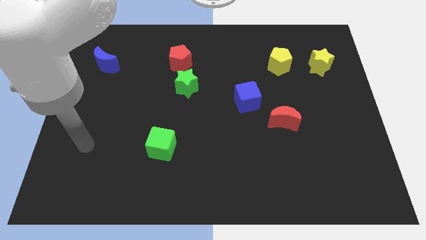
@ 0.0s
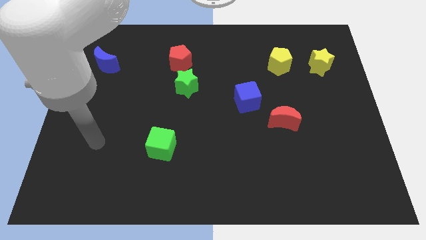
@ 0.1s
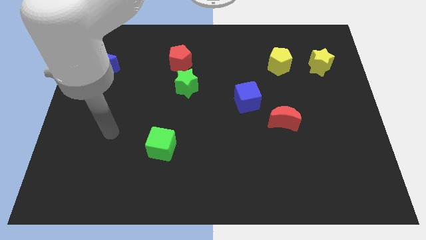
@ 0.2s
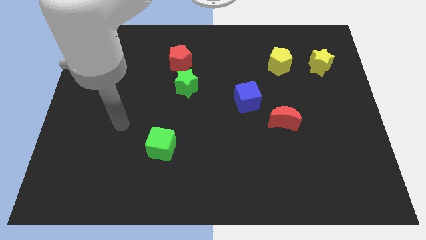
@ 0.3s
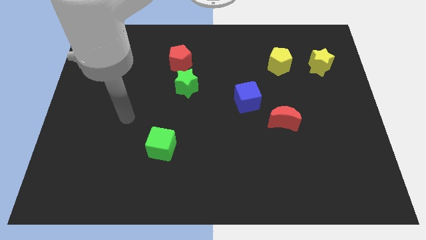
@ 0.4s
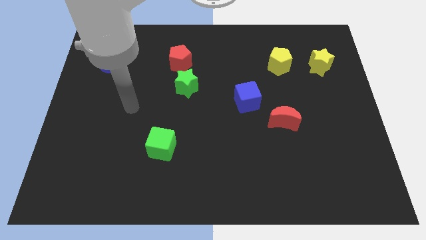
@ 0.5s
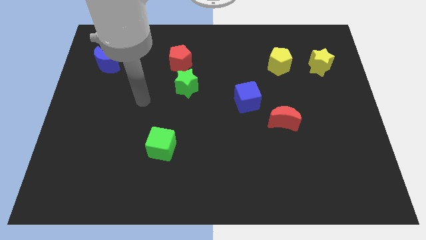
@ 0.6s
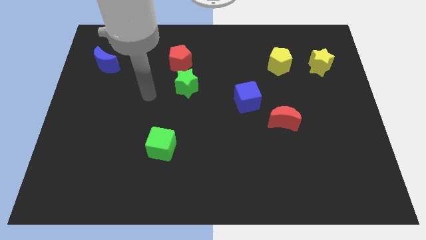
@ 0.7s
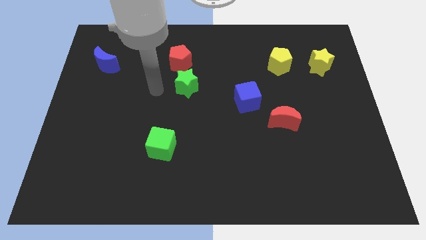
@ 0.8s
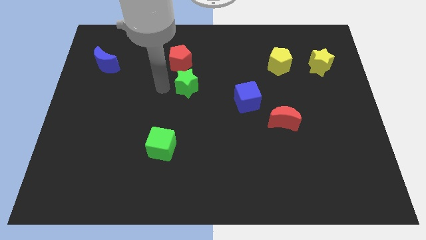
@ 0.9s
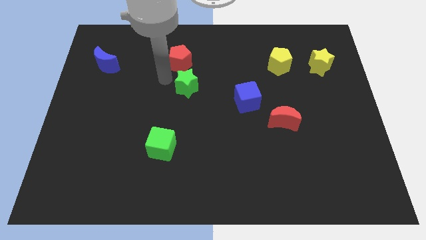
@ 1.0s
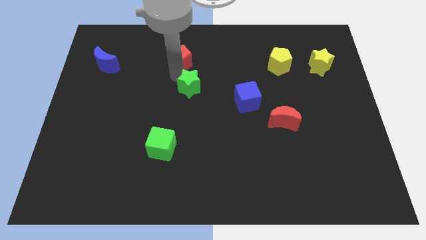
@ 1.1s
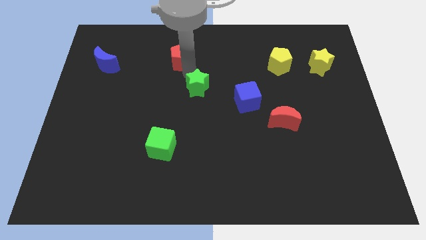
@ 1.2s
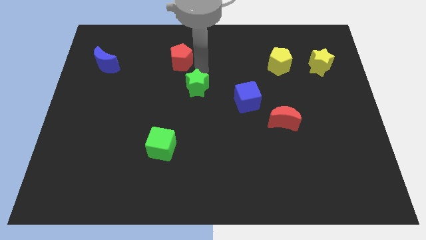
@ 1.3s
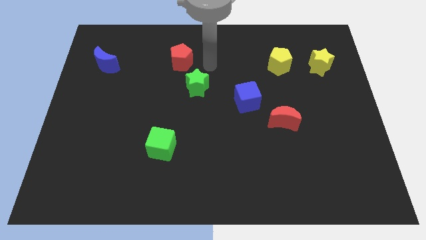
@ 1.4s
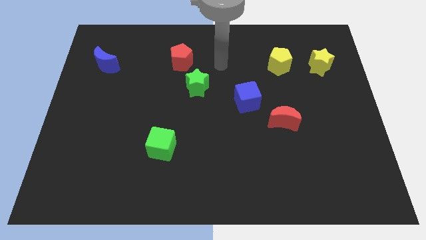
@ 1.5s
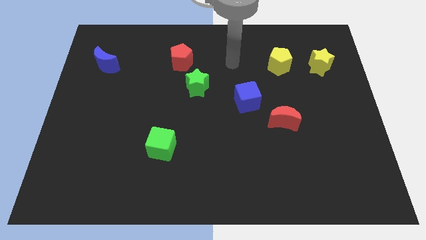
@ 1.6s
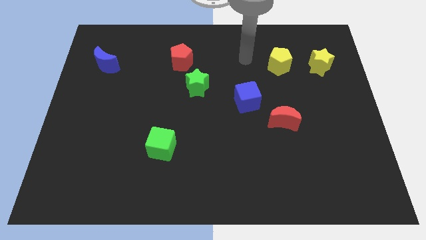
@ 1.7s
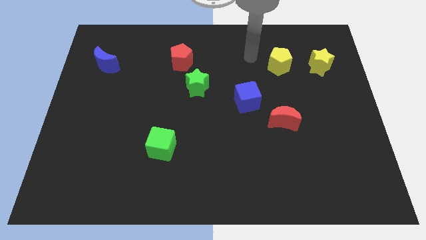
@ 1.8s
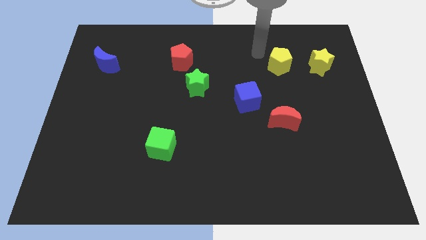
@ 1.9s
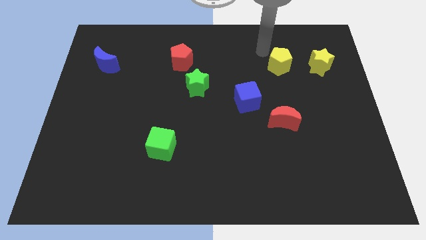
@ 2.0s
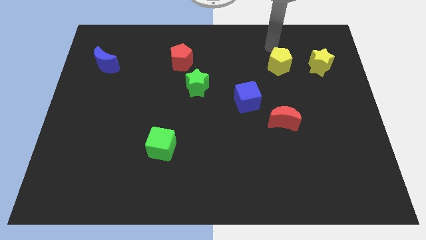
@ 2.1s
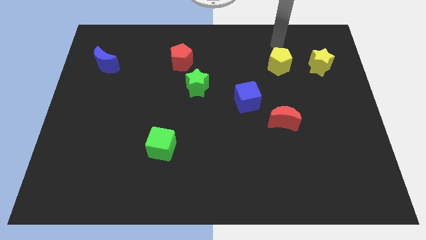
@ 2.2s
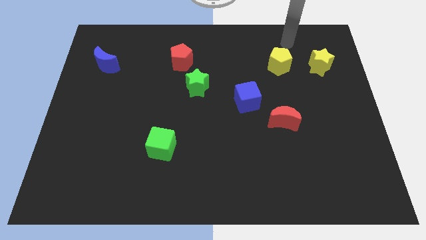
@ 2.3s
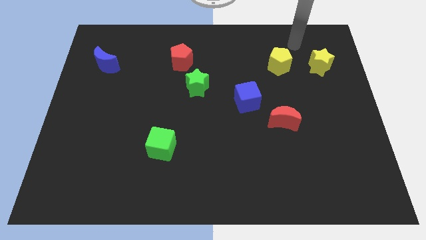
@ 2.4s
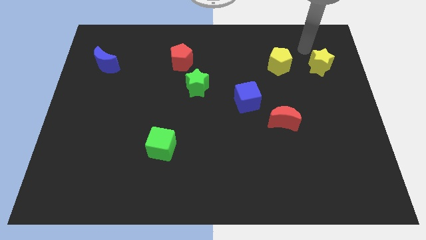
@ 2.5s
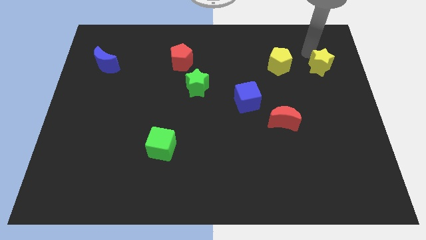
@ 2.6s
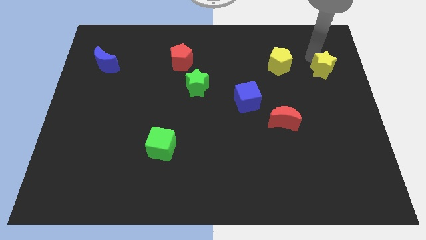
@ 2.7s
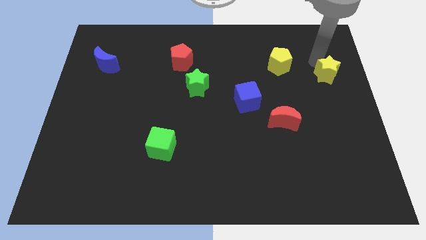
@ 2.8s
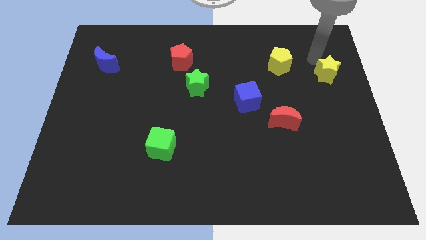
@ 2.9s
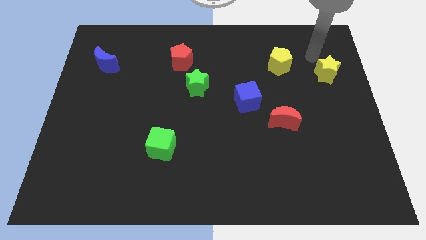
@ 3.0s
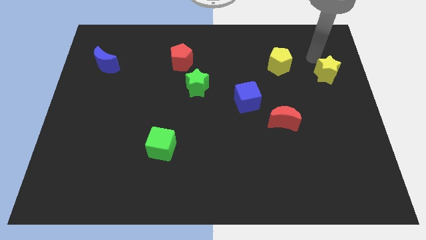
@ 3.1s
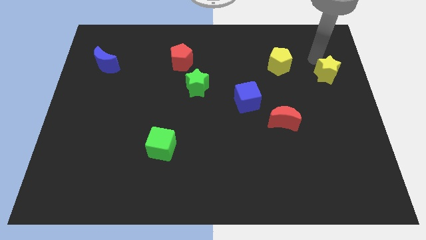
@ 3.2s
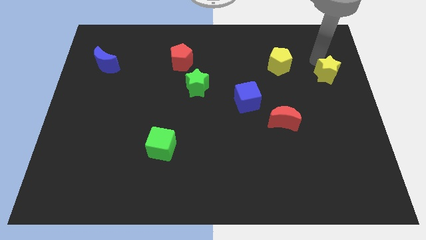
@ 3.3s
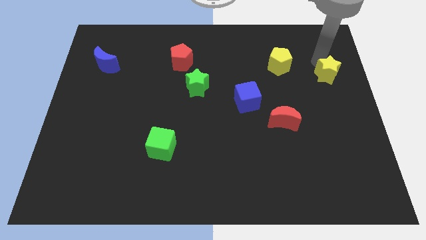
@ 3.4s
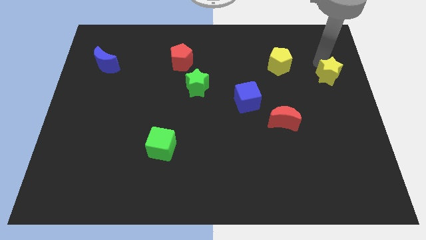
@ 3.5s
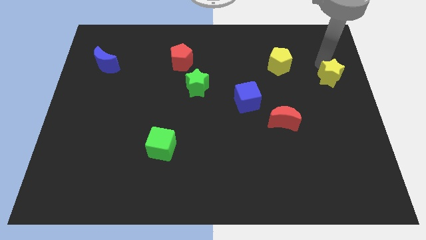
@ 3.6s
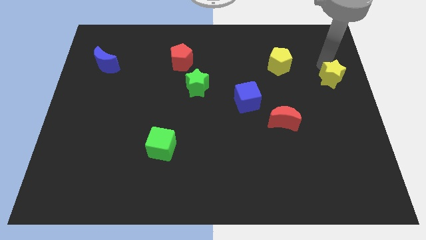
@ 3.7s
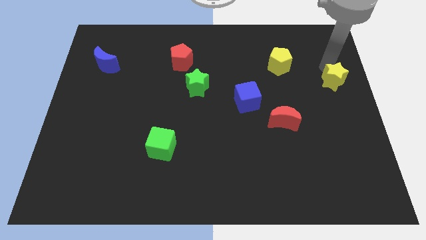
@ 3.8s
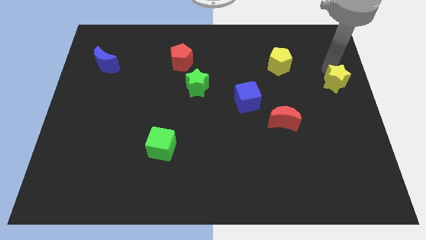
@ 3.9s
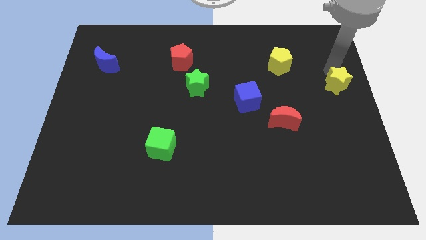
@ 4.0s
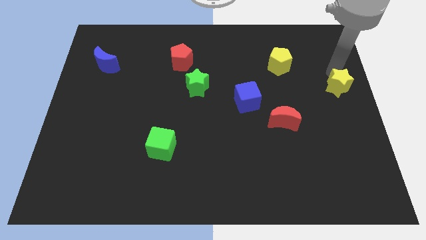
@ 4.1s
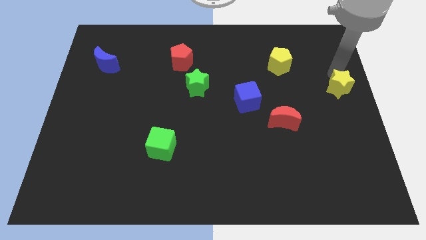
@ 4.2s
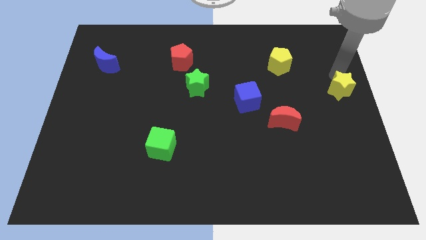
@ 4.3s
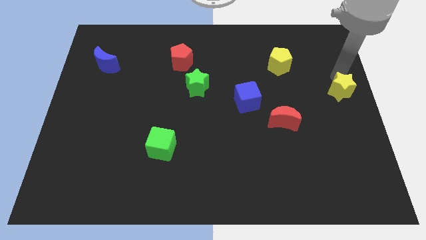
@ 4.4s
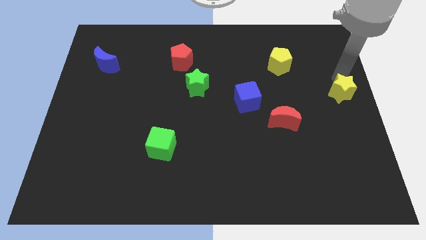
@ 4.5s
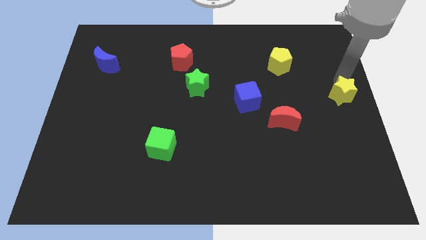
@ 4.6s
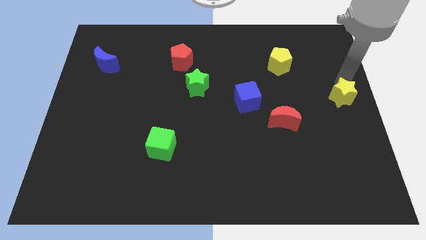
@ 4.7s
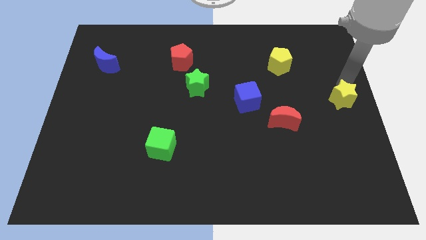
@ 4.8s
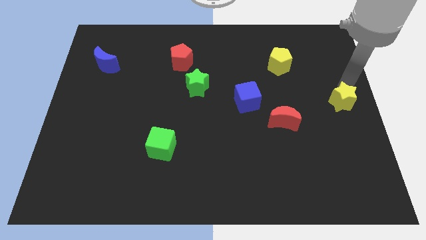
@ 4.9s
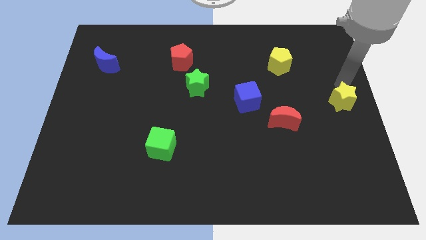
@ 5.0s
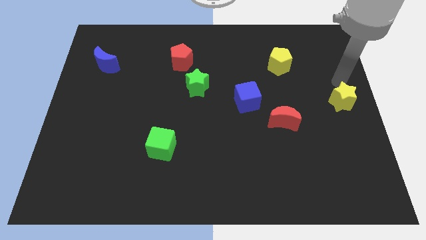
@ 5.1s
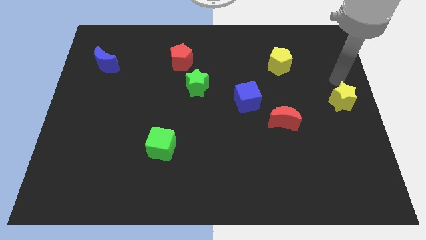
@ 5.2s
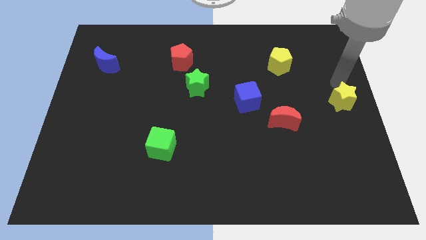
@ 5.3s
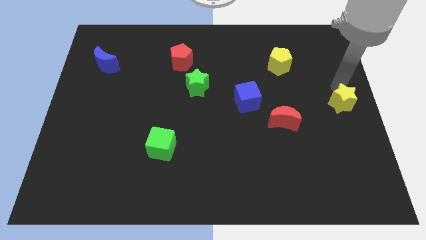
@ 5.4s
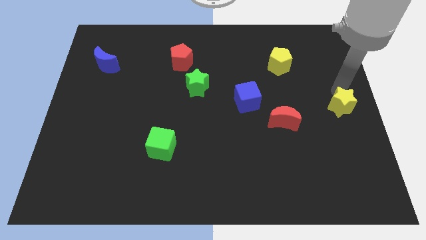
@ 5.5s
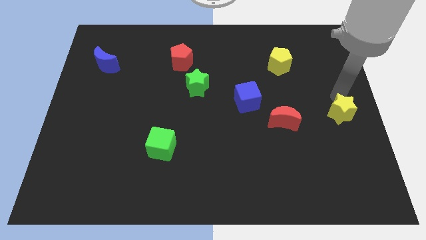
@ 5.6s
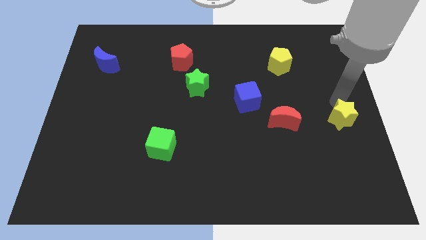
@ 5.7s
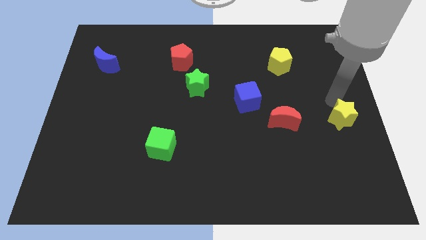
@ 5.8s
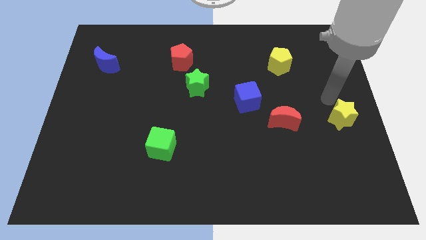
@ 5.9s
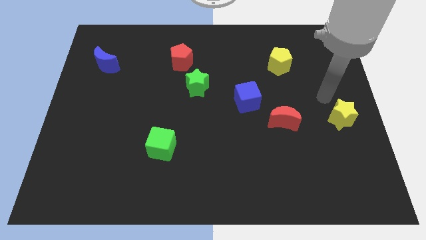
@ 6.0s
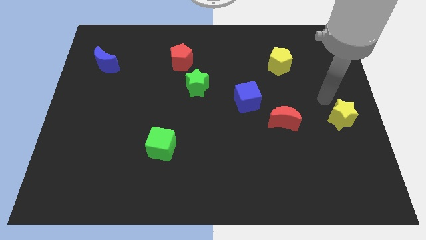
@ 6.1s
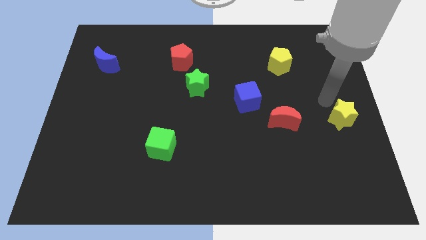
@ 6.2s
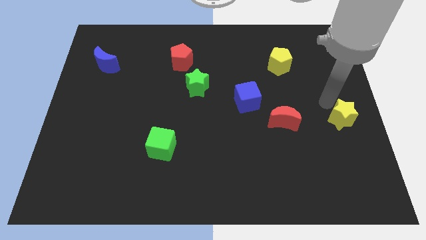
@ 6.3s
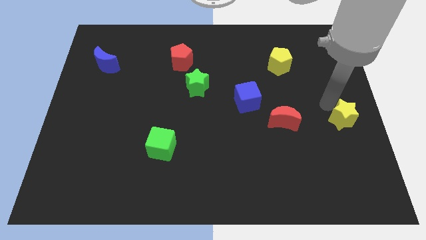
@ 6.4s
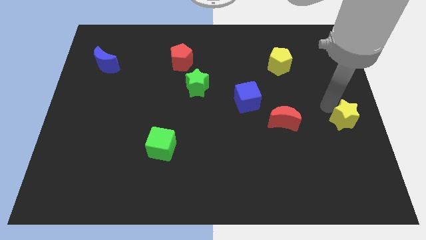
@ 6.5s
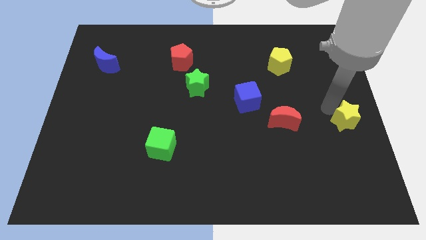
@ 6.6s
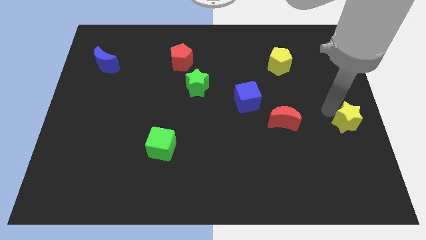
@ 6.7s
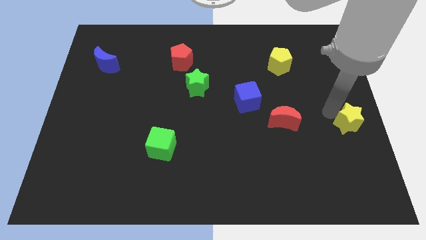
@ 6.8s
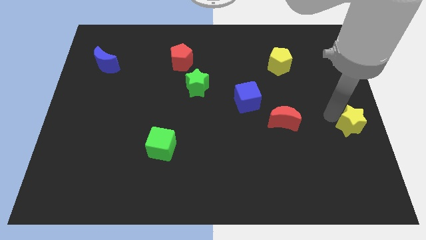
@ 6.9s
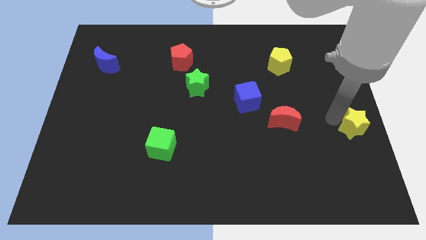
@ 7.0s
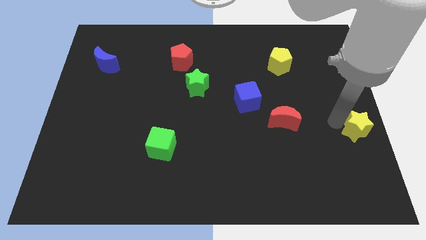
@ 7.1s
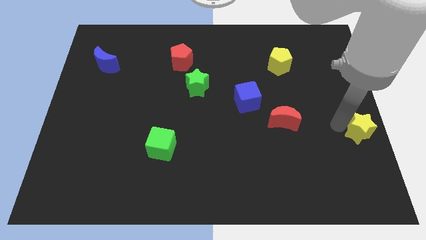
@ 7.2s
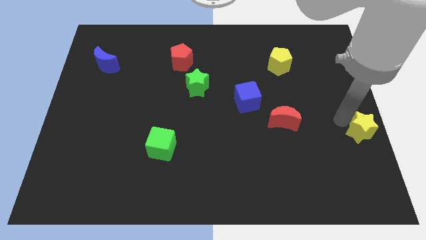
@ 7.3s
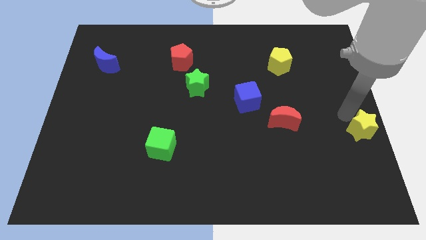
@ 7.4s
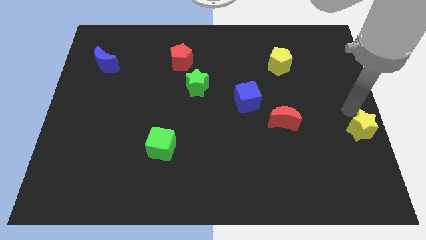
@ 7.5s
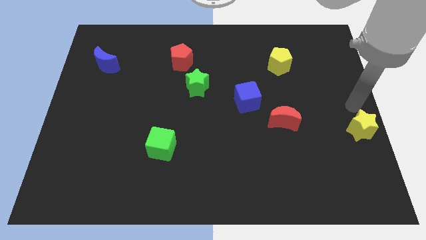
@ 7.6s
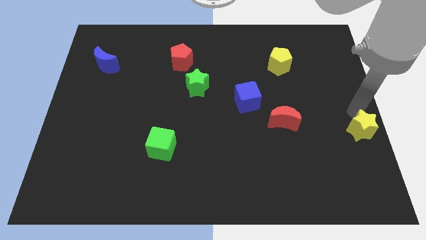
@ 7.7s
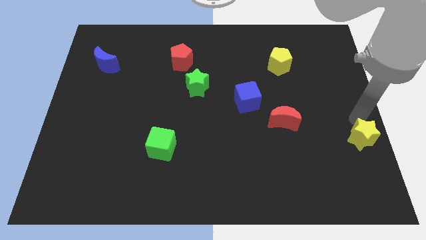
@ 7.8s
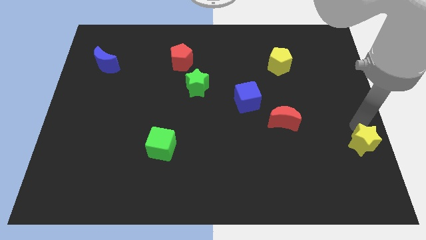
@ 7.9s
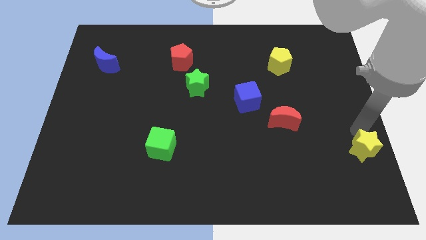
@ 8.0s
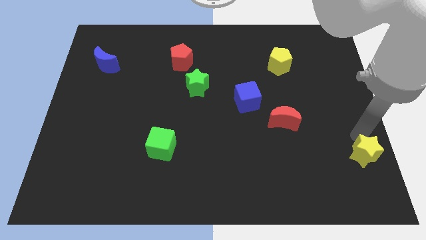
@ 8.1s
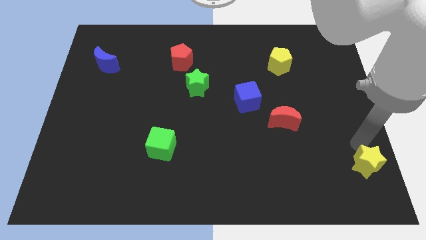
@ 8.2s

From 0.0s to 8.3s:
move the yellow star to the bottom right
